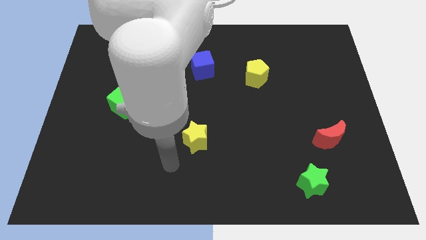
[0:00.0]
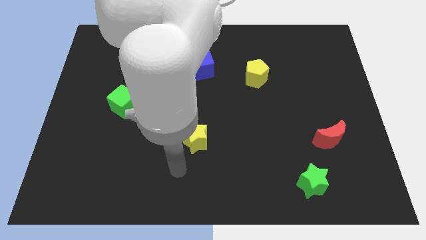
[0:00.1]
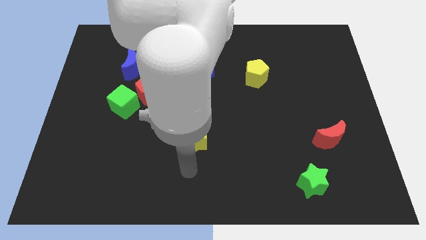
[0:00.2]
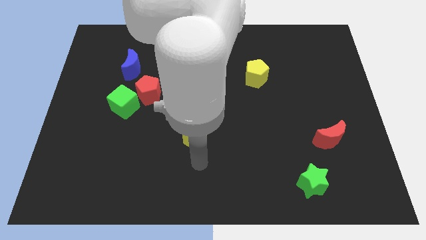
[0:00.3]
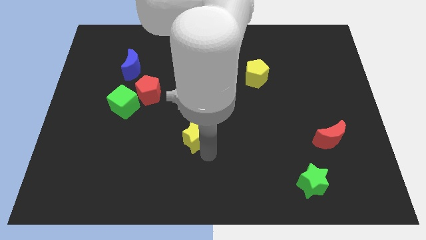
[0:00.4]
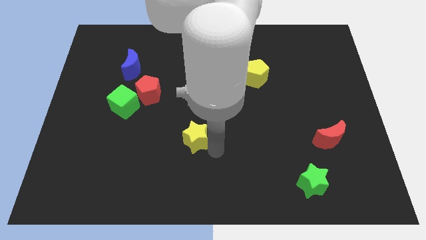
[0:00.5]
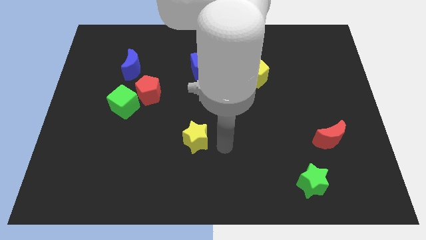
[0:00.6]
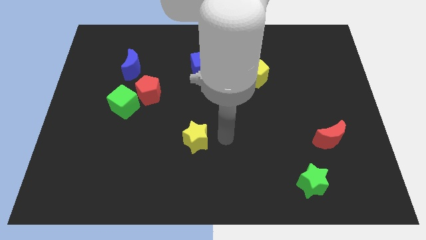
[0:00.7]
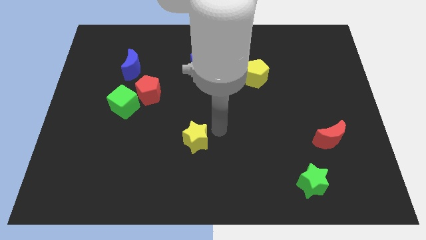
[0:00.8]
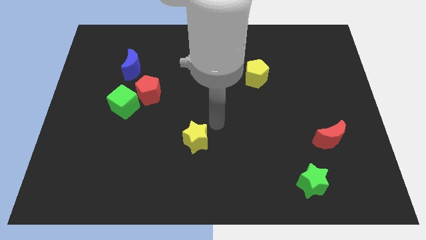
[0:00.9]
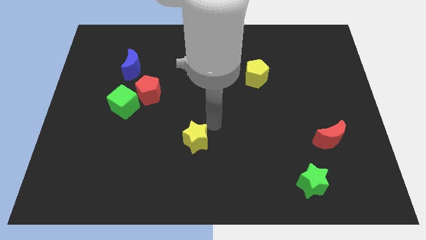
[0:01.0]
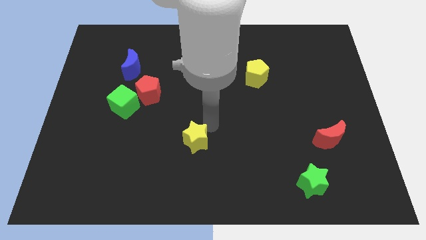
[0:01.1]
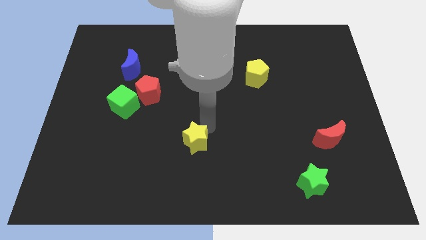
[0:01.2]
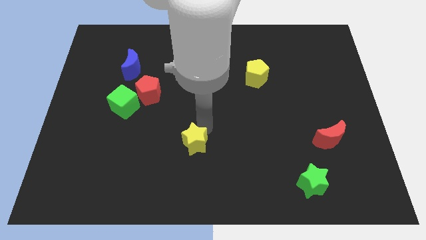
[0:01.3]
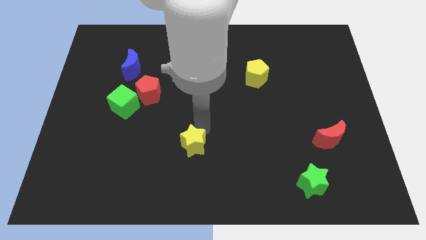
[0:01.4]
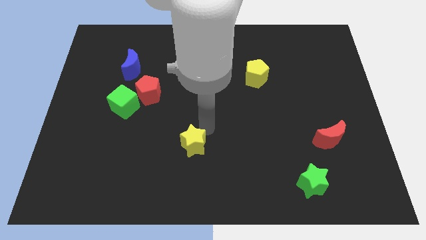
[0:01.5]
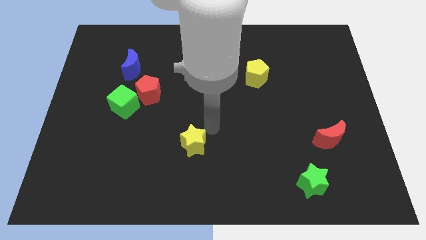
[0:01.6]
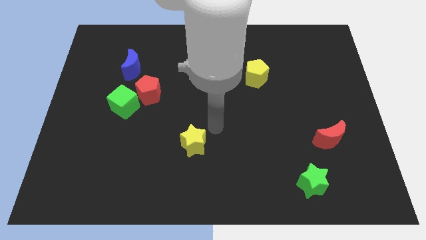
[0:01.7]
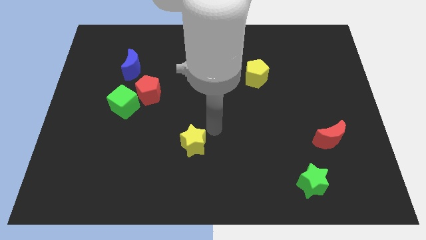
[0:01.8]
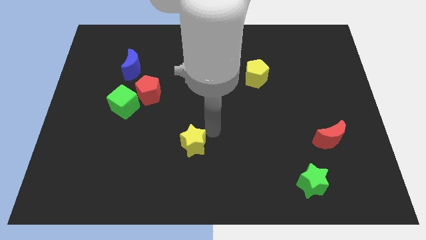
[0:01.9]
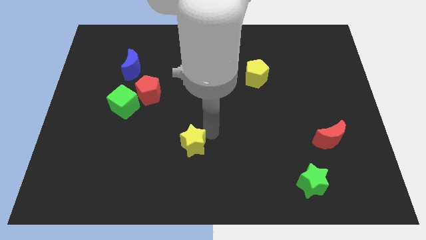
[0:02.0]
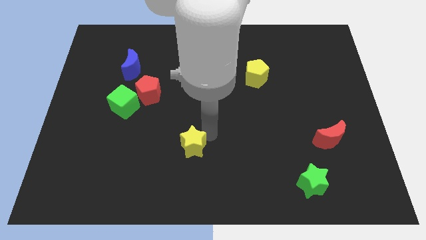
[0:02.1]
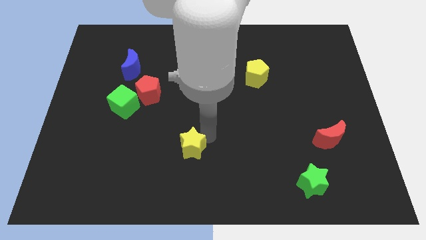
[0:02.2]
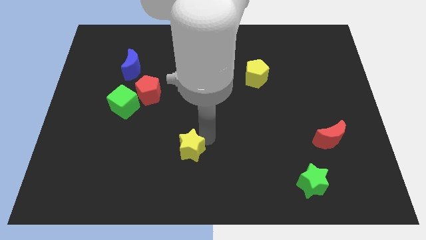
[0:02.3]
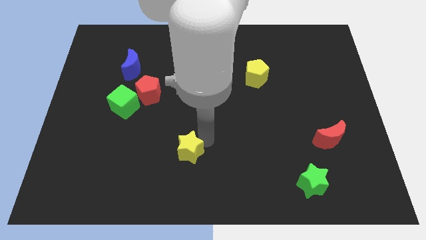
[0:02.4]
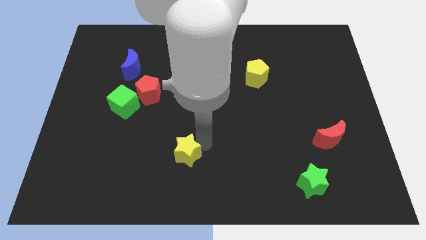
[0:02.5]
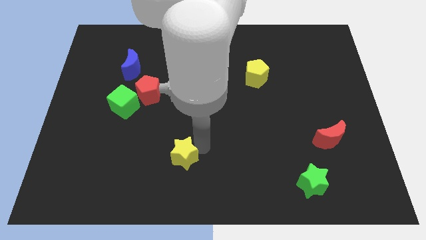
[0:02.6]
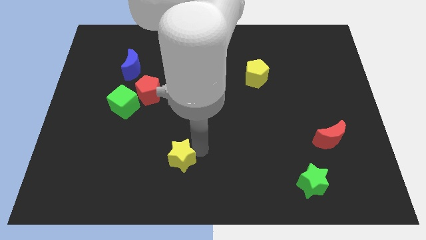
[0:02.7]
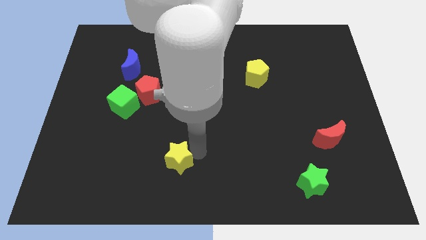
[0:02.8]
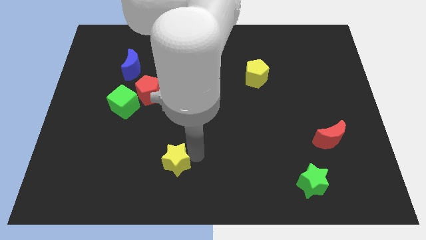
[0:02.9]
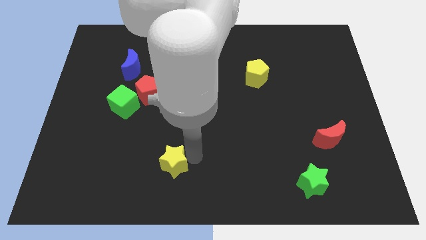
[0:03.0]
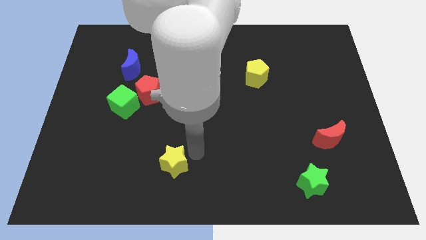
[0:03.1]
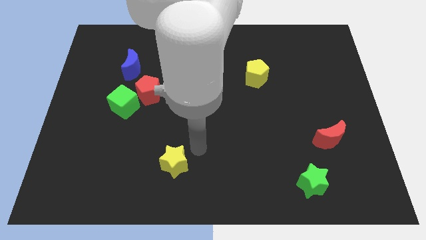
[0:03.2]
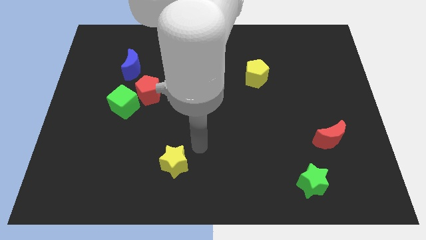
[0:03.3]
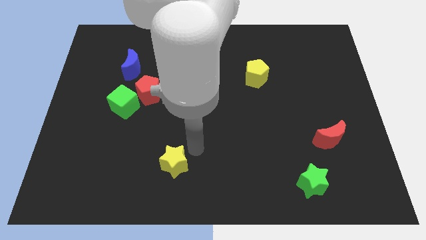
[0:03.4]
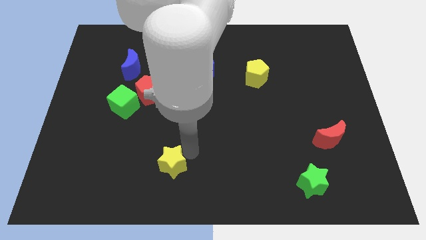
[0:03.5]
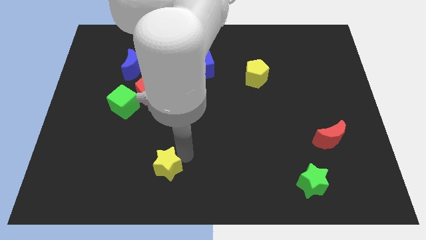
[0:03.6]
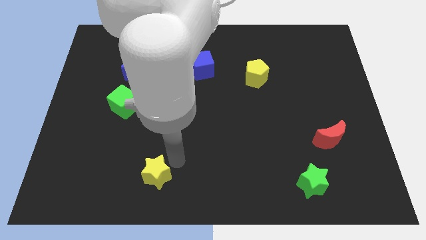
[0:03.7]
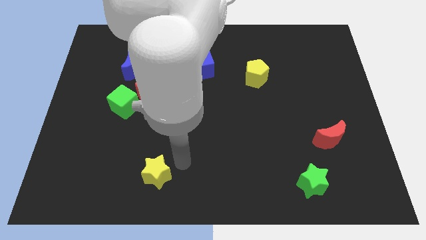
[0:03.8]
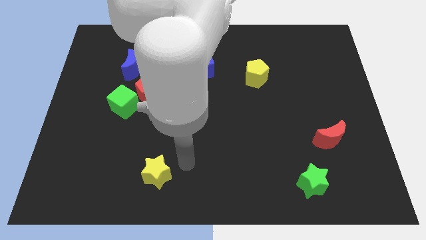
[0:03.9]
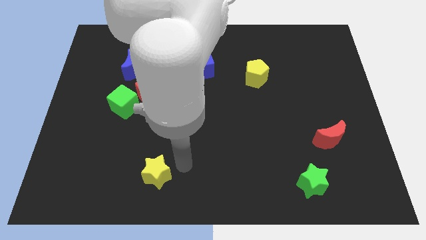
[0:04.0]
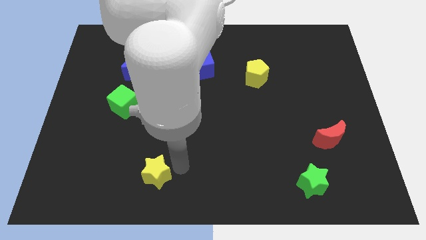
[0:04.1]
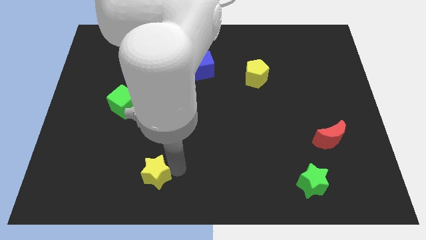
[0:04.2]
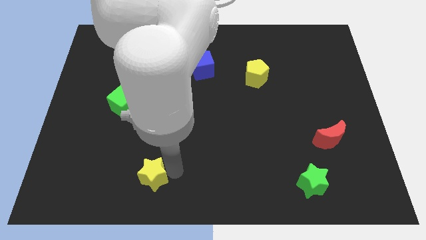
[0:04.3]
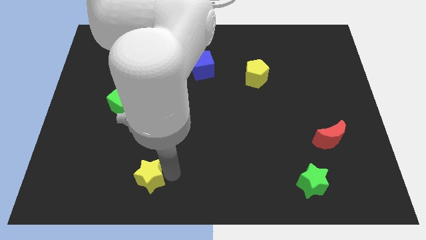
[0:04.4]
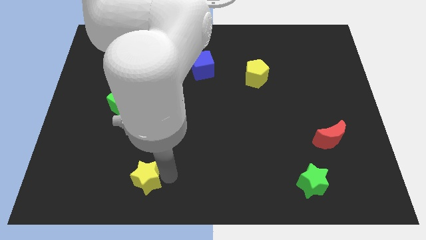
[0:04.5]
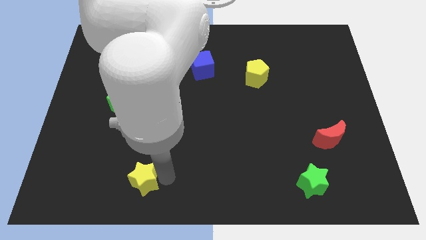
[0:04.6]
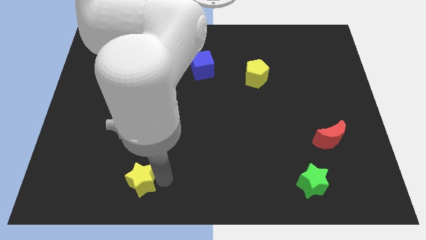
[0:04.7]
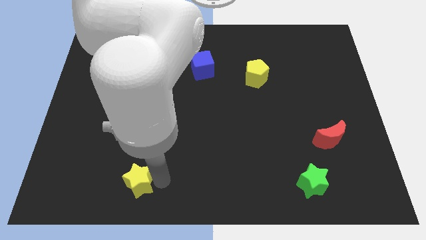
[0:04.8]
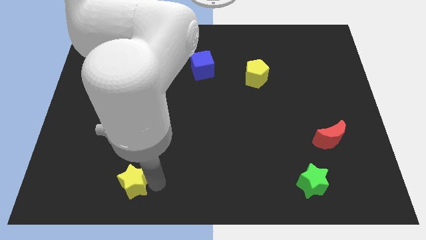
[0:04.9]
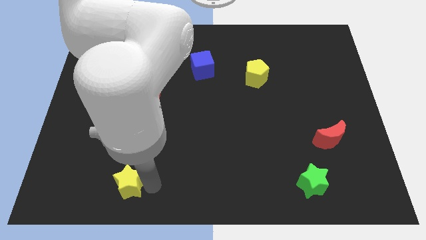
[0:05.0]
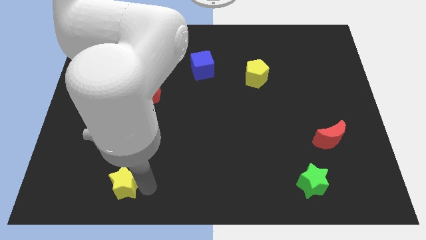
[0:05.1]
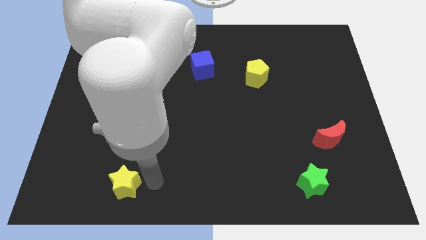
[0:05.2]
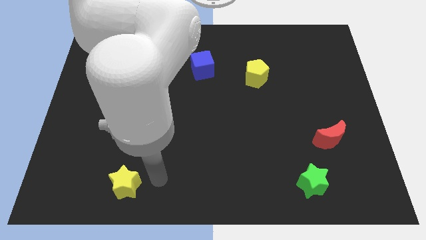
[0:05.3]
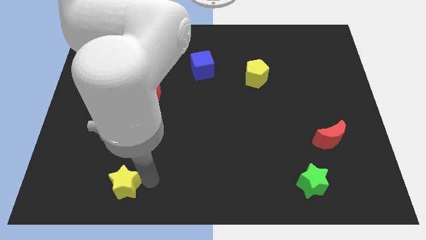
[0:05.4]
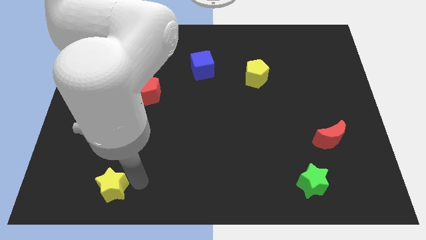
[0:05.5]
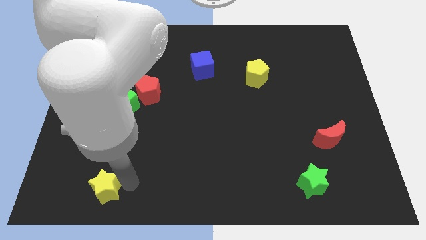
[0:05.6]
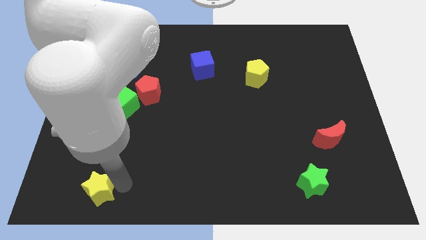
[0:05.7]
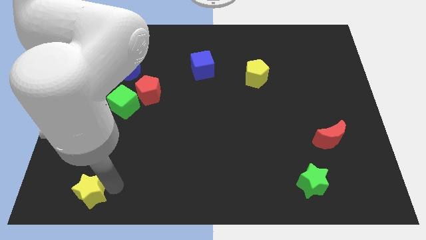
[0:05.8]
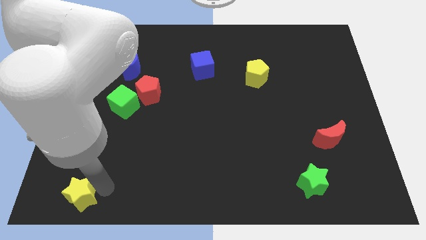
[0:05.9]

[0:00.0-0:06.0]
move the yellow star to the bottom left
